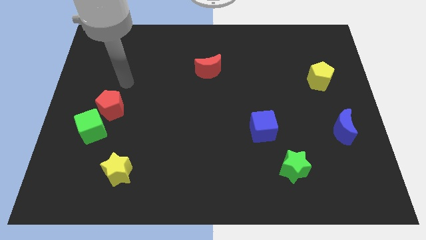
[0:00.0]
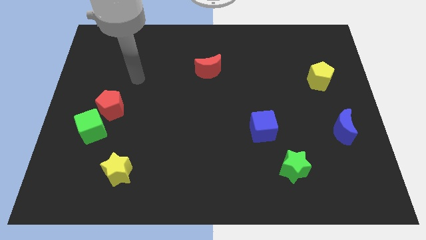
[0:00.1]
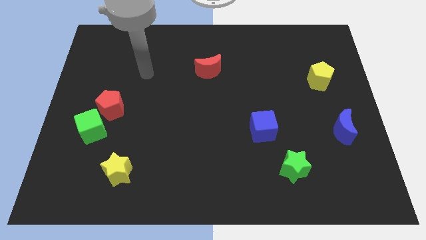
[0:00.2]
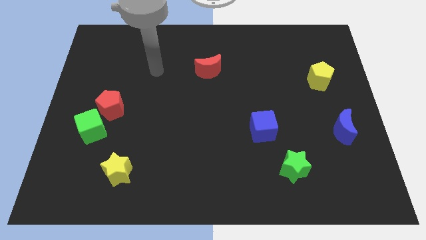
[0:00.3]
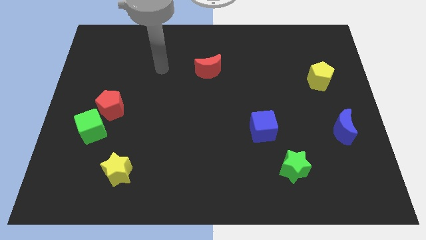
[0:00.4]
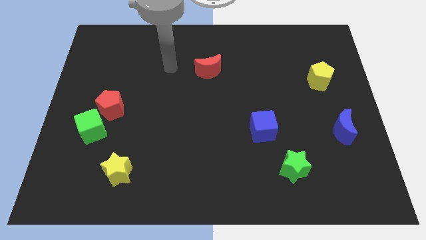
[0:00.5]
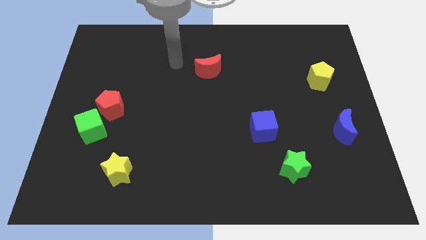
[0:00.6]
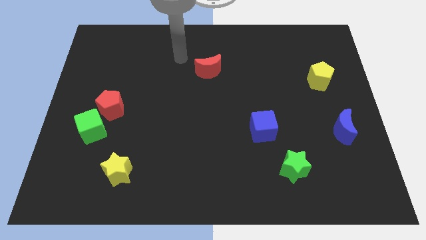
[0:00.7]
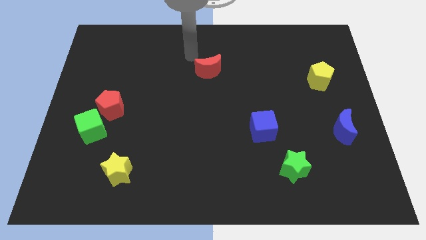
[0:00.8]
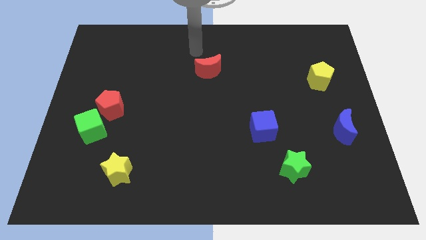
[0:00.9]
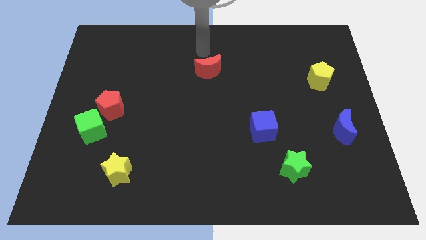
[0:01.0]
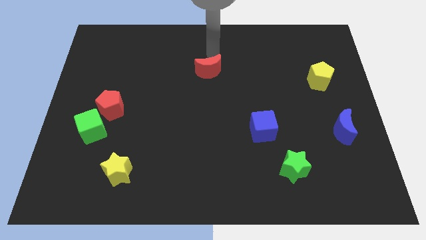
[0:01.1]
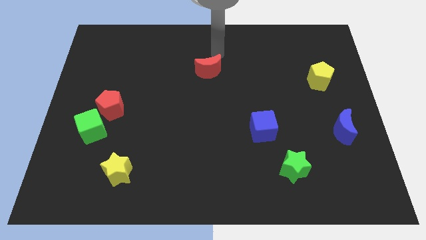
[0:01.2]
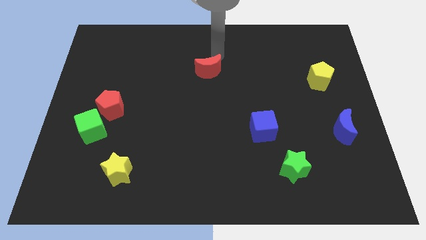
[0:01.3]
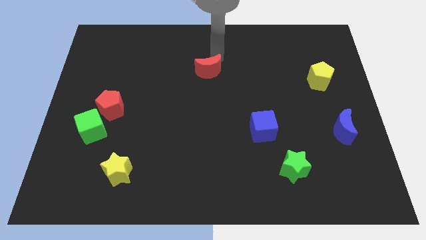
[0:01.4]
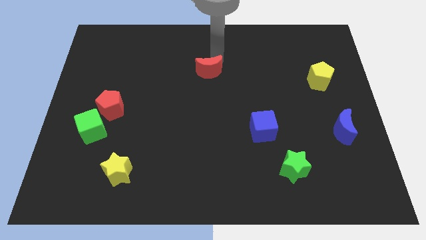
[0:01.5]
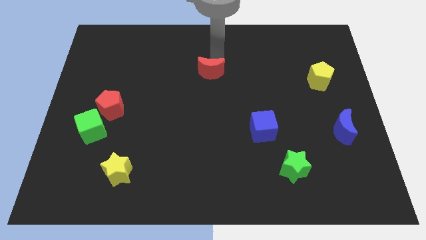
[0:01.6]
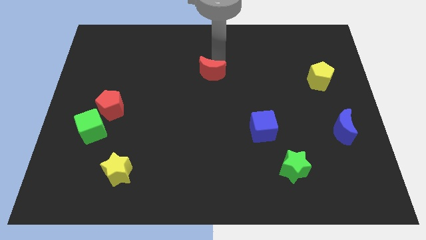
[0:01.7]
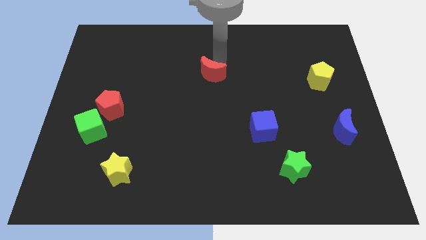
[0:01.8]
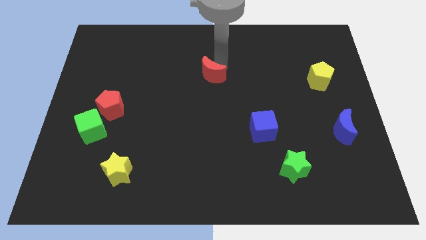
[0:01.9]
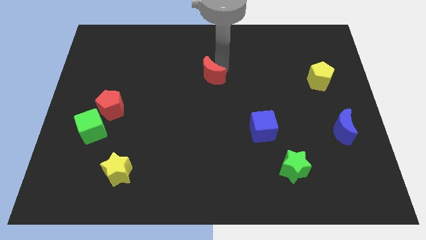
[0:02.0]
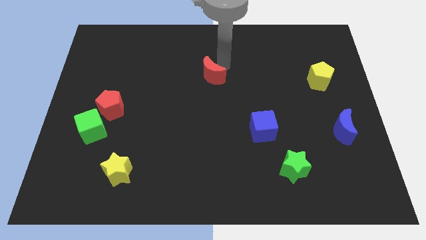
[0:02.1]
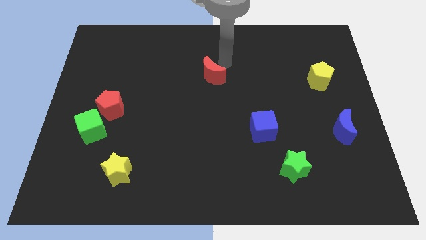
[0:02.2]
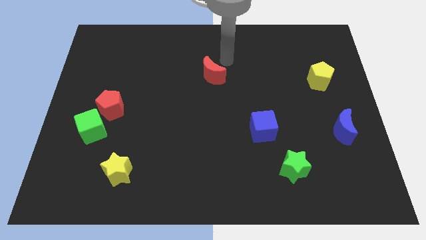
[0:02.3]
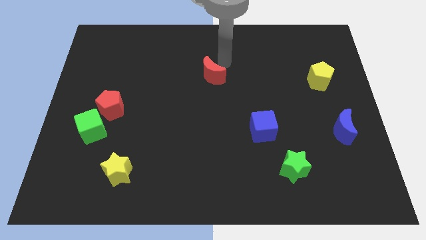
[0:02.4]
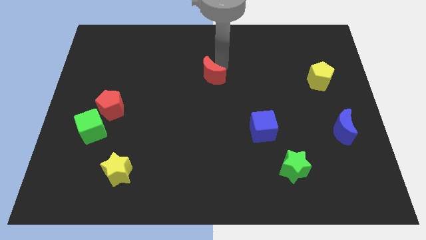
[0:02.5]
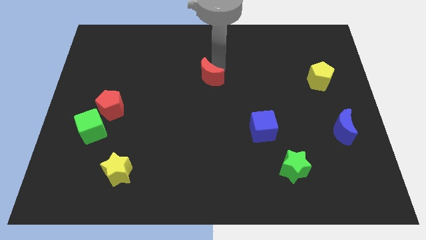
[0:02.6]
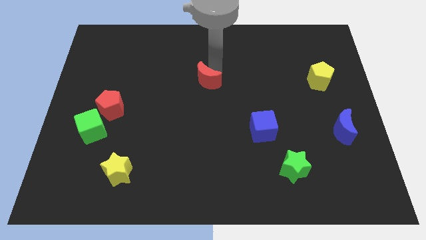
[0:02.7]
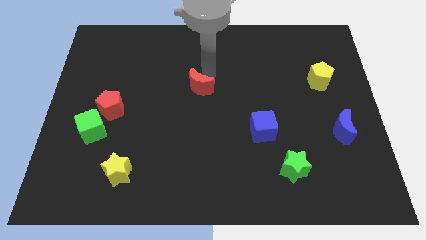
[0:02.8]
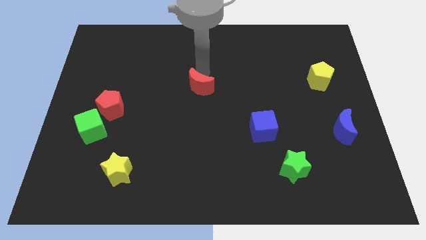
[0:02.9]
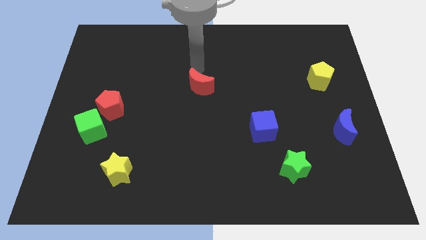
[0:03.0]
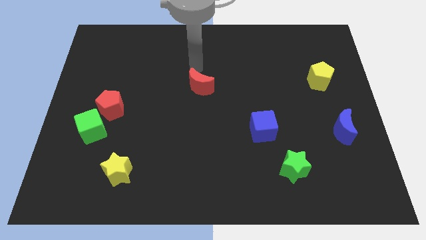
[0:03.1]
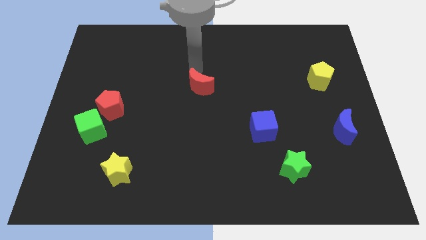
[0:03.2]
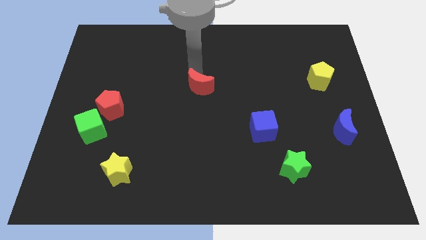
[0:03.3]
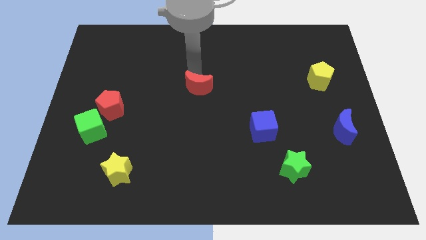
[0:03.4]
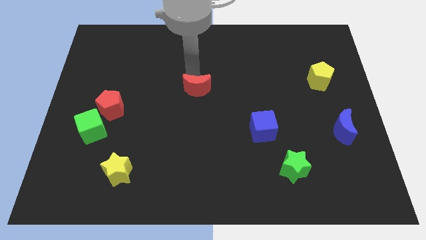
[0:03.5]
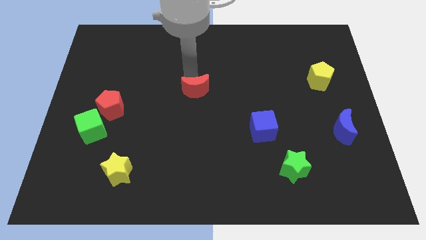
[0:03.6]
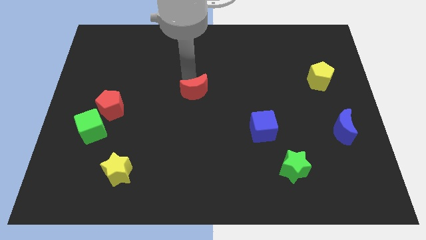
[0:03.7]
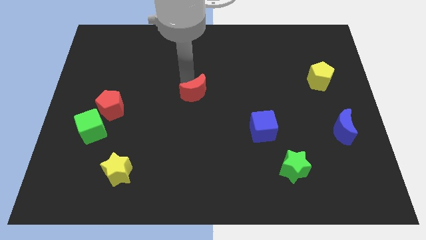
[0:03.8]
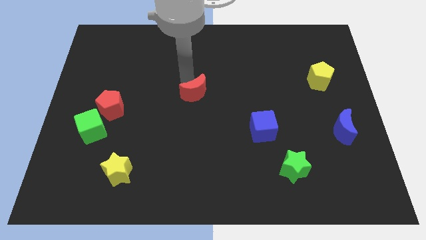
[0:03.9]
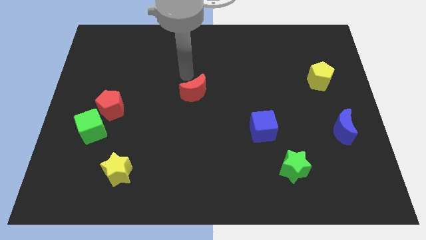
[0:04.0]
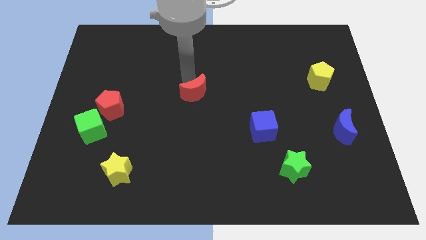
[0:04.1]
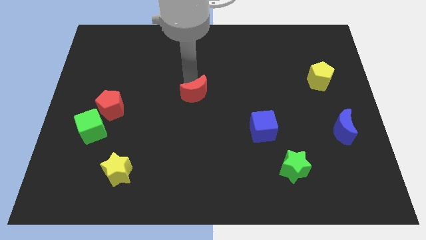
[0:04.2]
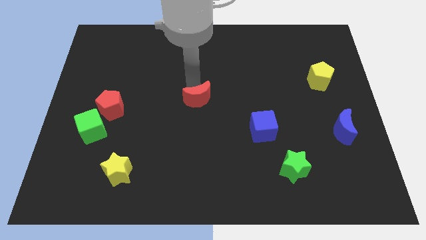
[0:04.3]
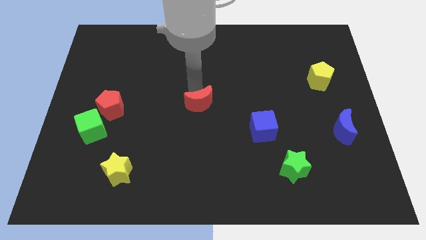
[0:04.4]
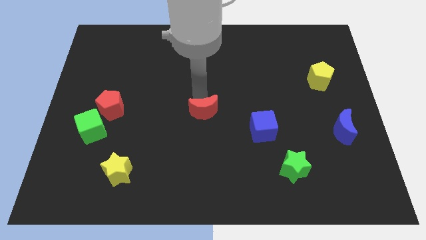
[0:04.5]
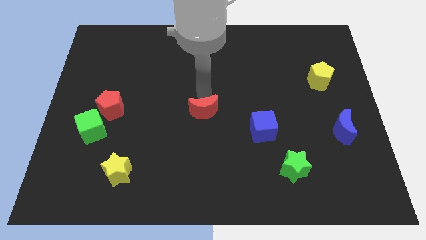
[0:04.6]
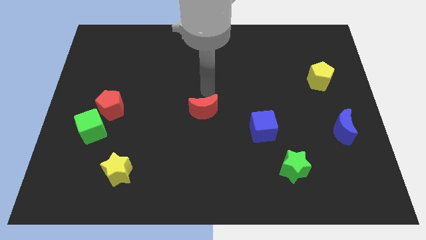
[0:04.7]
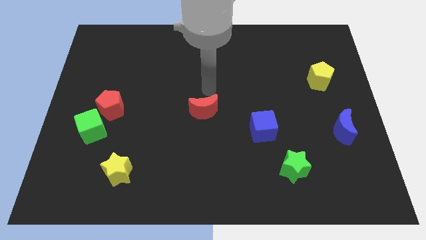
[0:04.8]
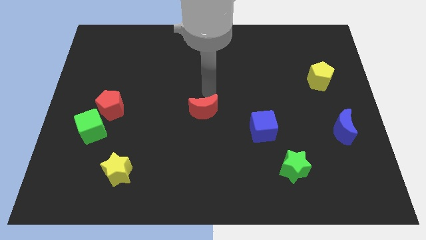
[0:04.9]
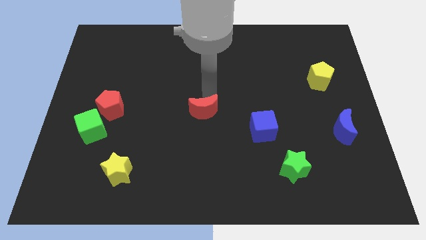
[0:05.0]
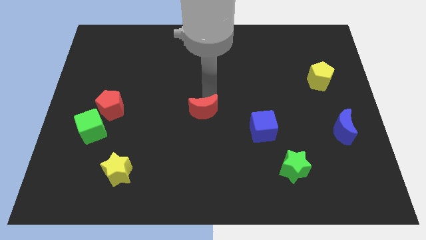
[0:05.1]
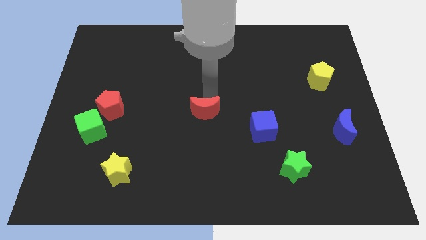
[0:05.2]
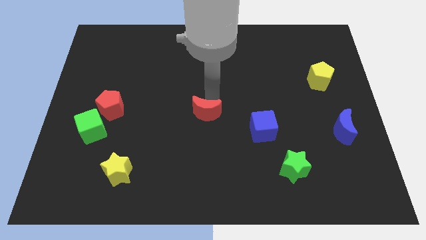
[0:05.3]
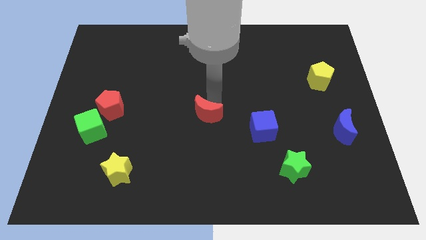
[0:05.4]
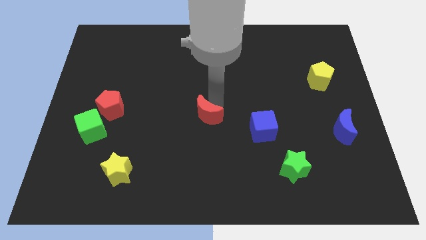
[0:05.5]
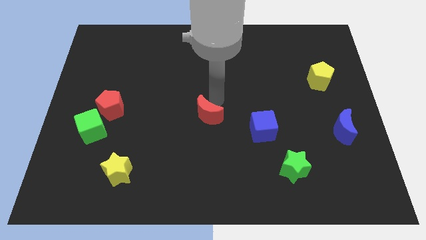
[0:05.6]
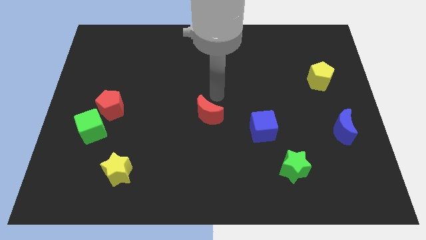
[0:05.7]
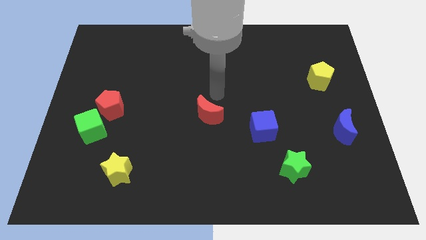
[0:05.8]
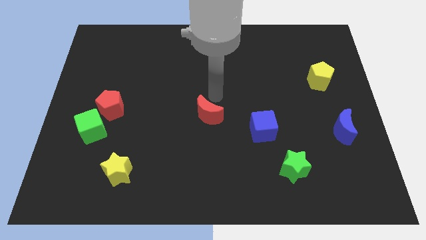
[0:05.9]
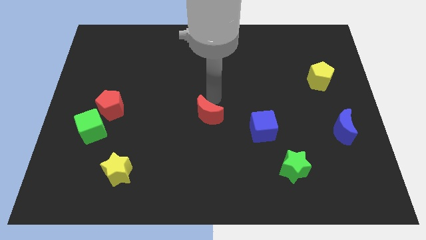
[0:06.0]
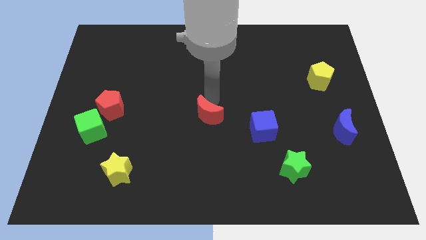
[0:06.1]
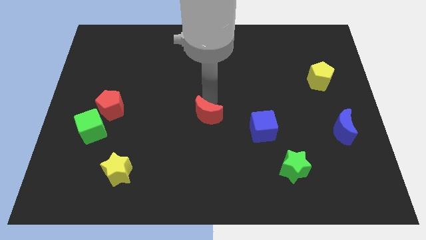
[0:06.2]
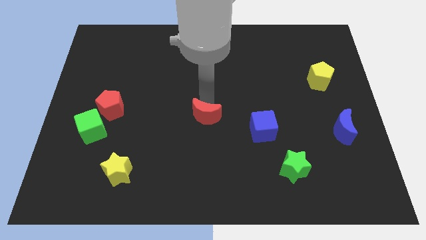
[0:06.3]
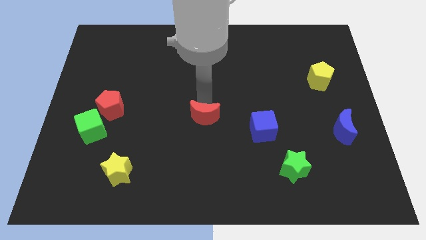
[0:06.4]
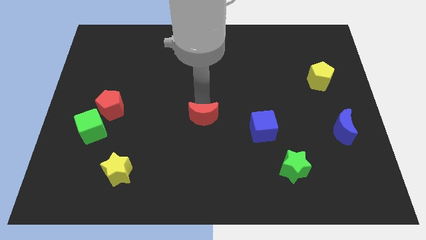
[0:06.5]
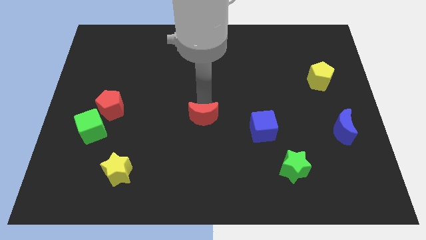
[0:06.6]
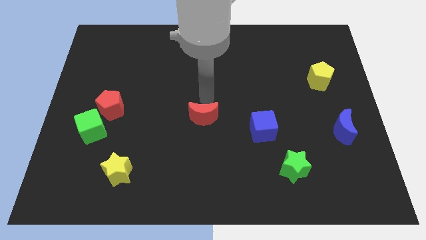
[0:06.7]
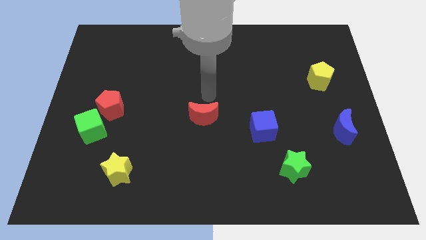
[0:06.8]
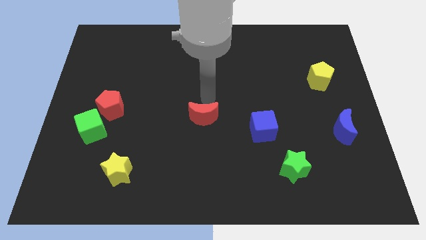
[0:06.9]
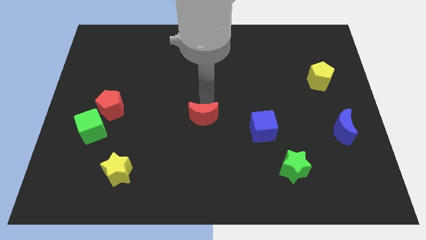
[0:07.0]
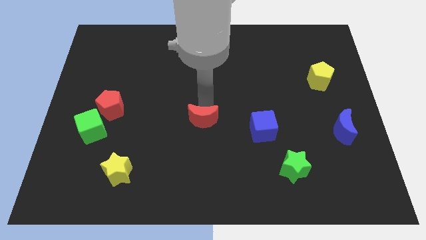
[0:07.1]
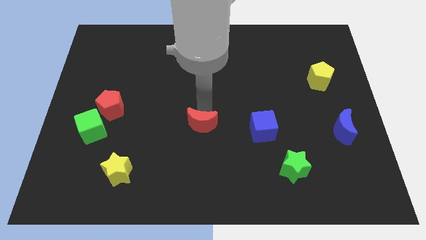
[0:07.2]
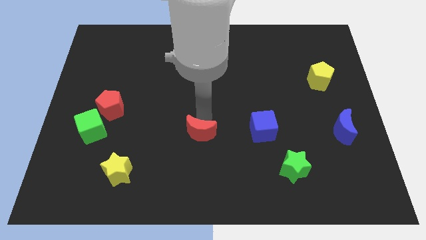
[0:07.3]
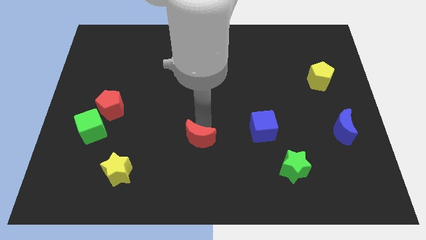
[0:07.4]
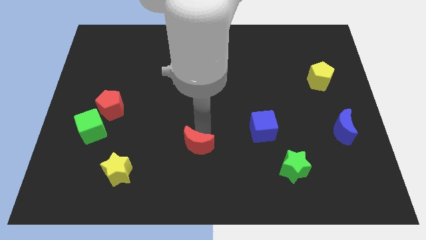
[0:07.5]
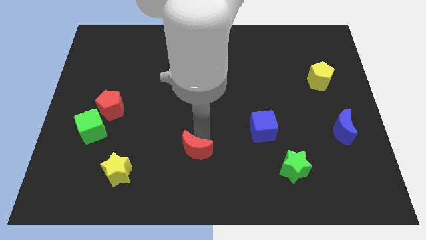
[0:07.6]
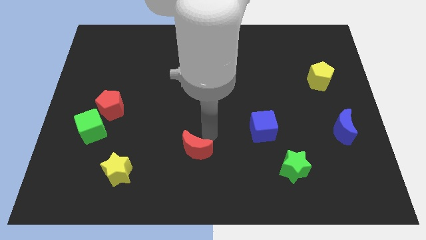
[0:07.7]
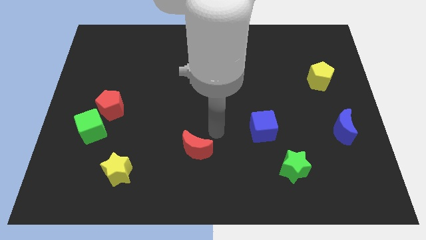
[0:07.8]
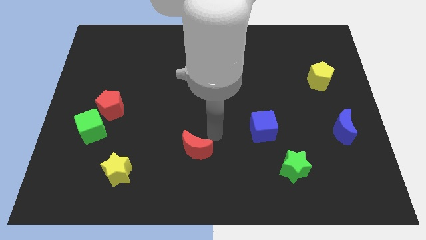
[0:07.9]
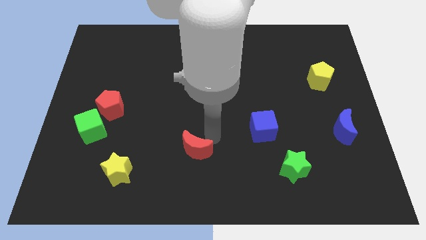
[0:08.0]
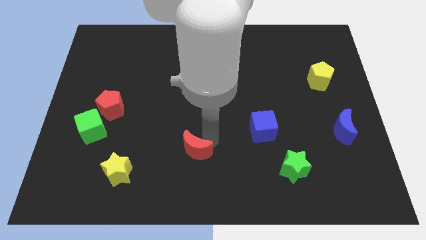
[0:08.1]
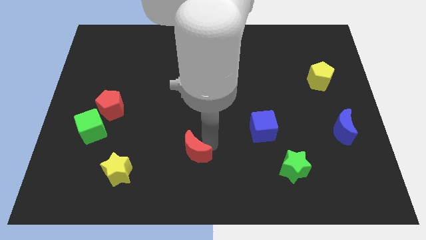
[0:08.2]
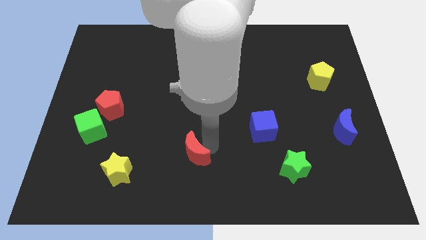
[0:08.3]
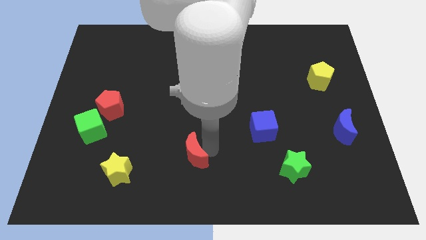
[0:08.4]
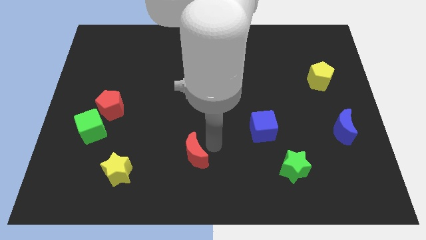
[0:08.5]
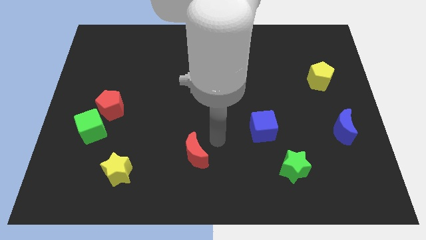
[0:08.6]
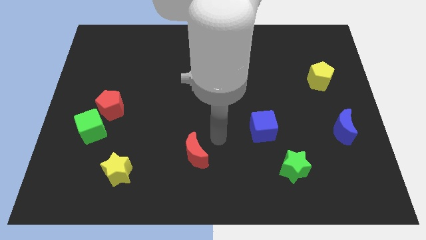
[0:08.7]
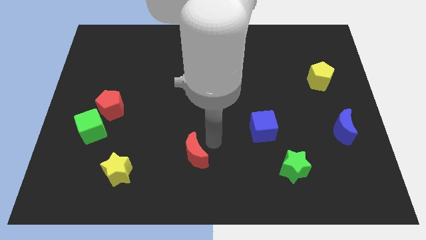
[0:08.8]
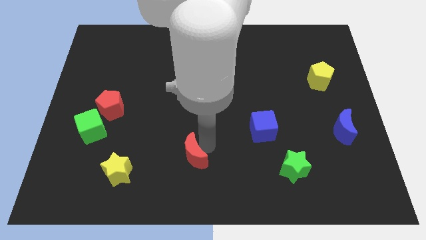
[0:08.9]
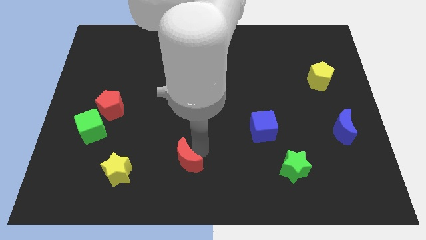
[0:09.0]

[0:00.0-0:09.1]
put the red moon just right of the yellow star
